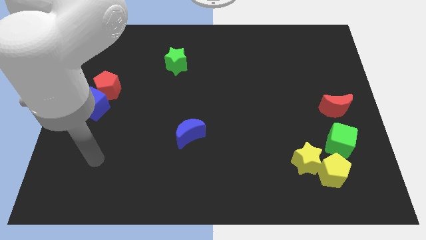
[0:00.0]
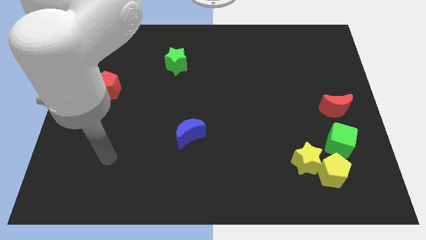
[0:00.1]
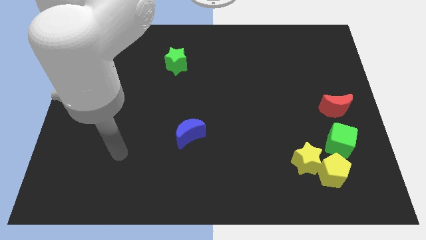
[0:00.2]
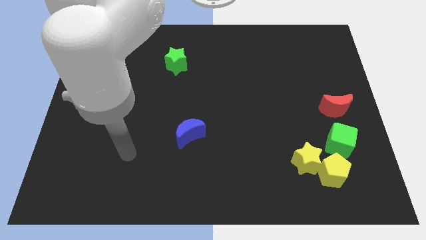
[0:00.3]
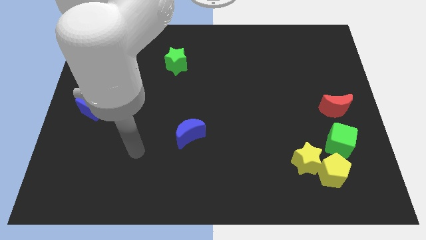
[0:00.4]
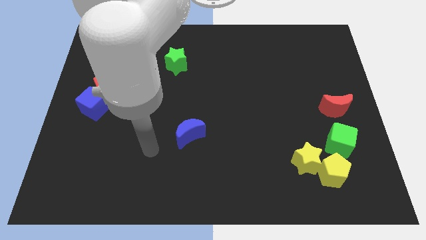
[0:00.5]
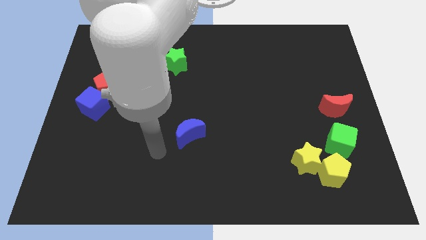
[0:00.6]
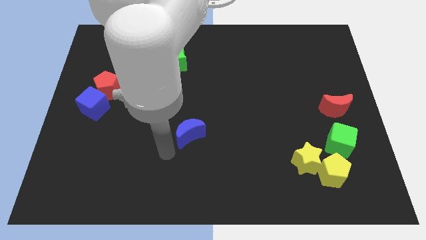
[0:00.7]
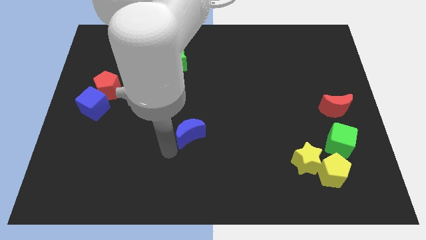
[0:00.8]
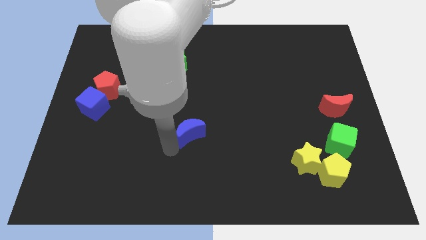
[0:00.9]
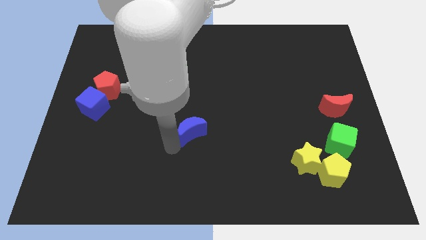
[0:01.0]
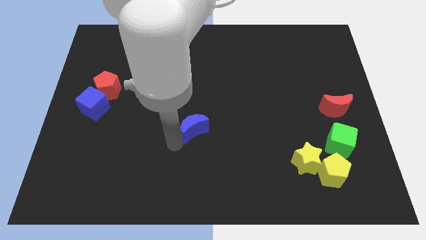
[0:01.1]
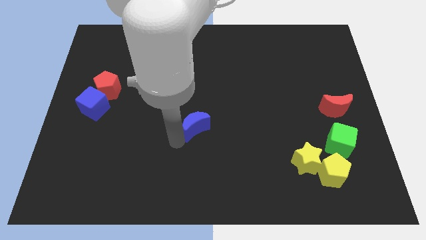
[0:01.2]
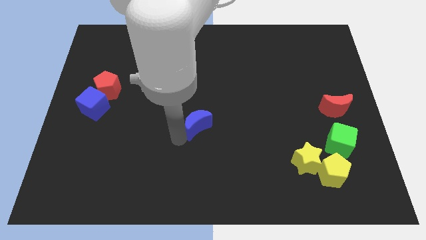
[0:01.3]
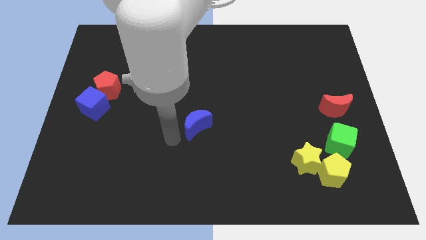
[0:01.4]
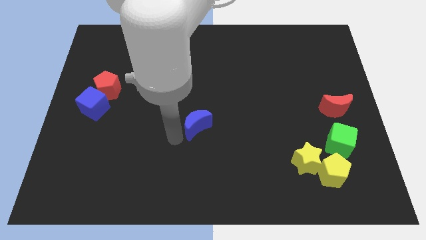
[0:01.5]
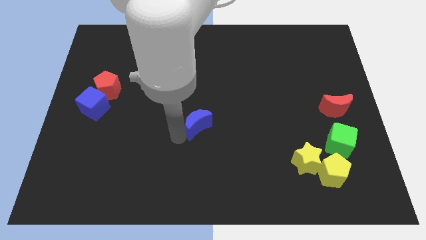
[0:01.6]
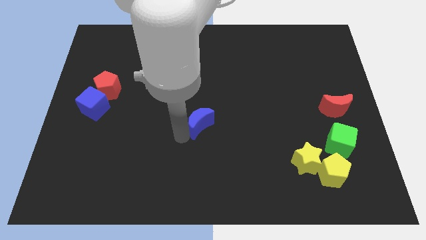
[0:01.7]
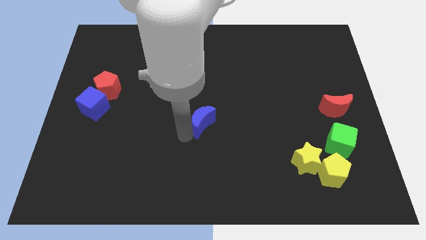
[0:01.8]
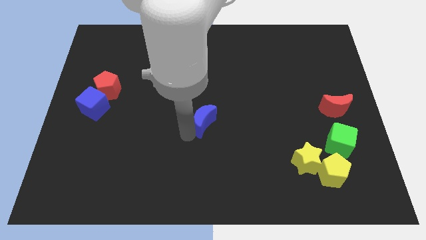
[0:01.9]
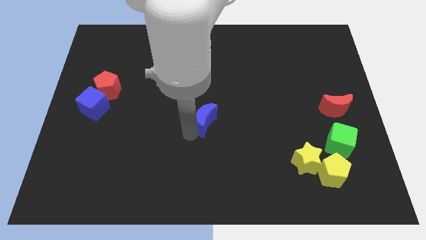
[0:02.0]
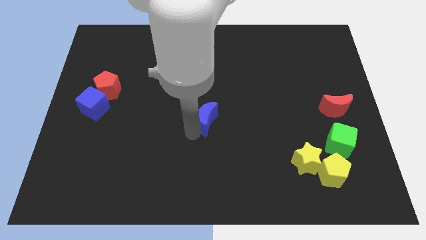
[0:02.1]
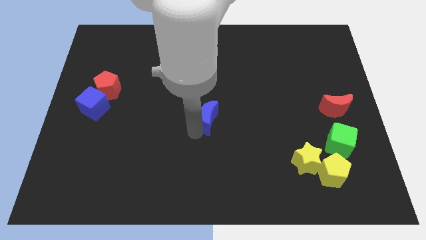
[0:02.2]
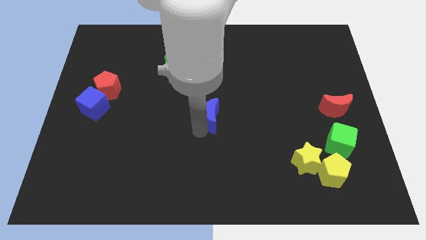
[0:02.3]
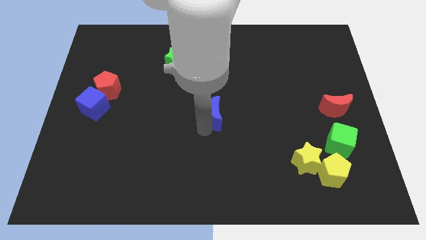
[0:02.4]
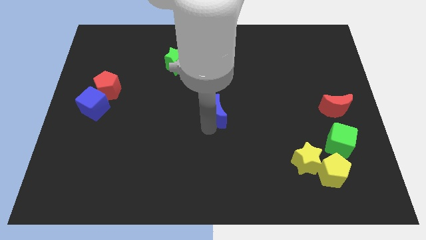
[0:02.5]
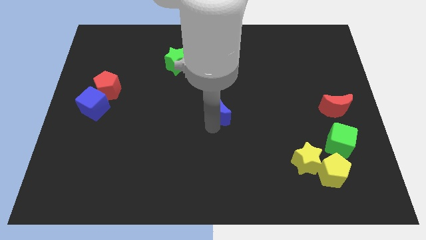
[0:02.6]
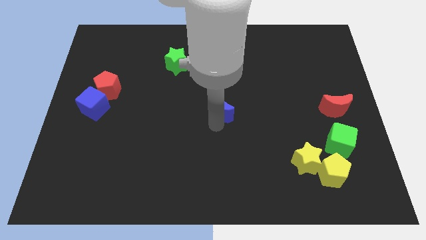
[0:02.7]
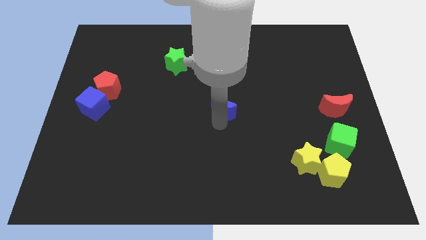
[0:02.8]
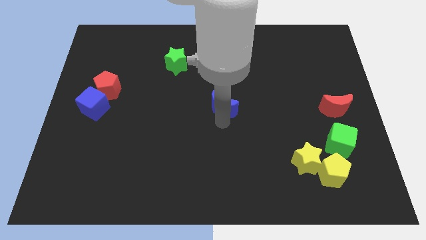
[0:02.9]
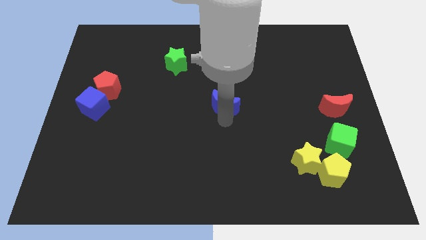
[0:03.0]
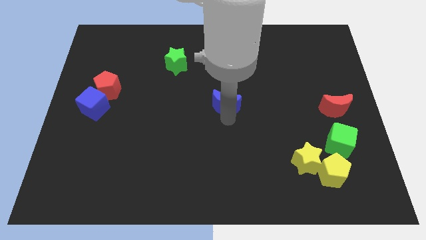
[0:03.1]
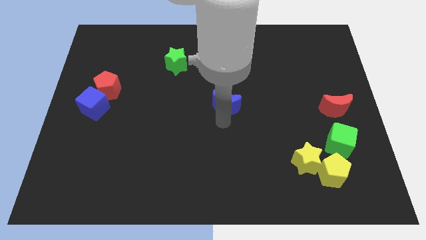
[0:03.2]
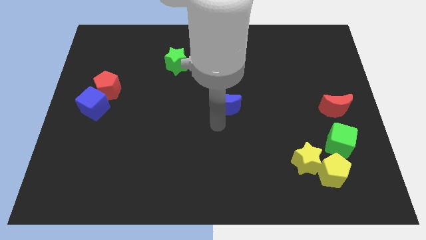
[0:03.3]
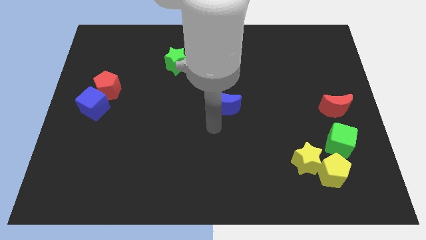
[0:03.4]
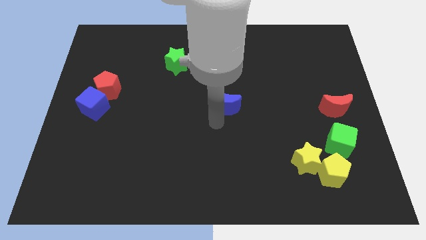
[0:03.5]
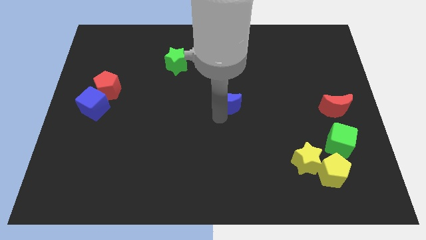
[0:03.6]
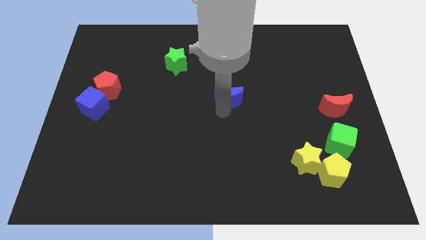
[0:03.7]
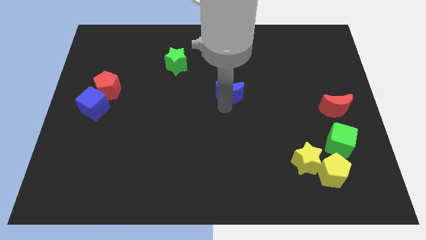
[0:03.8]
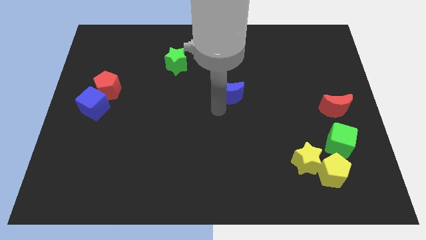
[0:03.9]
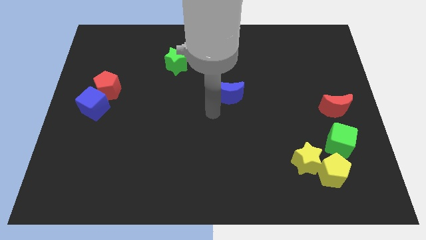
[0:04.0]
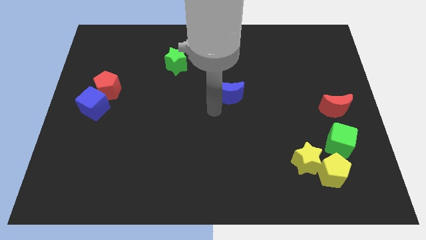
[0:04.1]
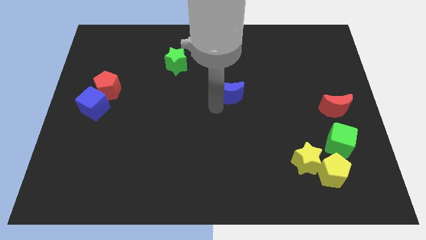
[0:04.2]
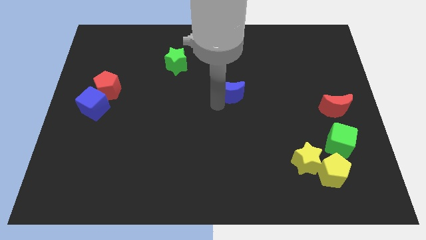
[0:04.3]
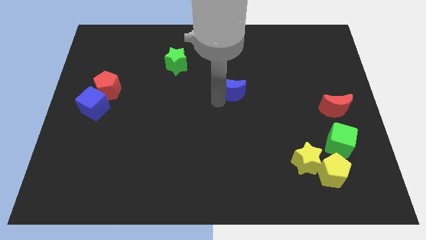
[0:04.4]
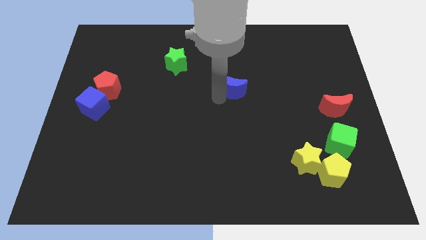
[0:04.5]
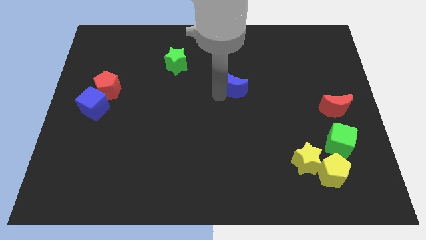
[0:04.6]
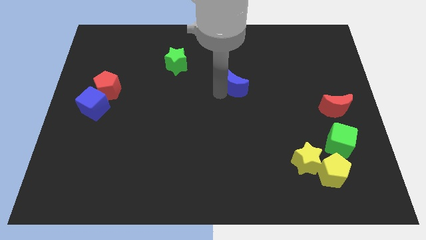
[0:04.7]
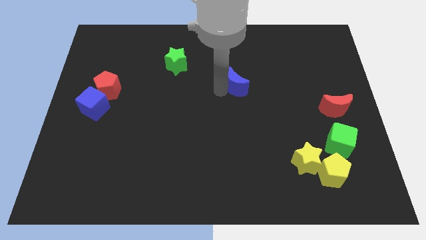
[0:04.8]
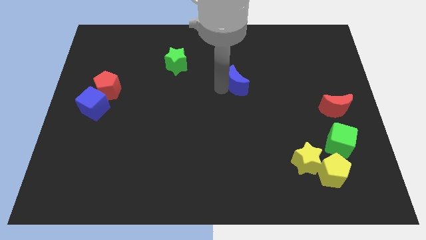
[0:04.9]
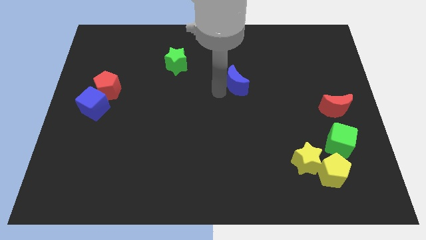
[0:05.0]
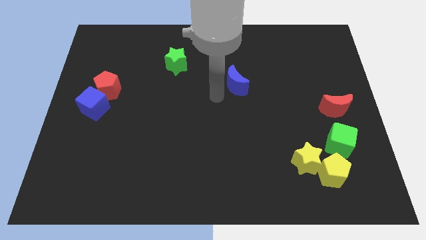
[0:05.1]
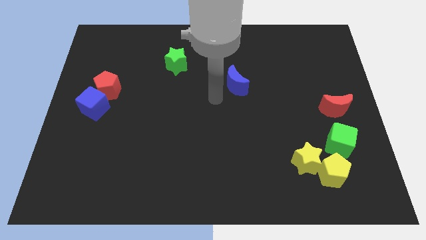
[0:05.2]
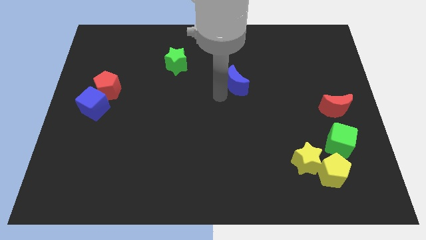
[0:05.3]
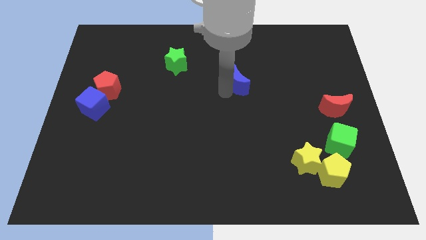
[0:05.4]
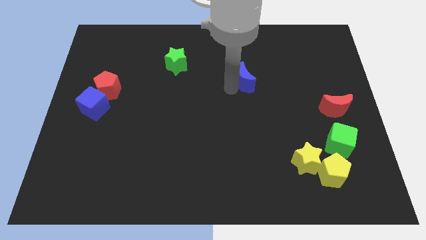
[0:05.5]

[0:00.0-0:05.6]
move the blue moon up and then to the right

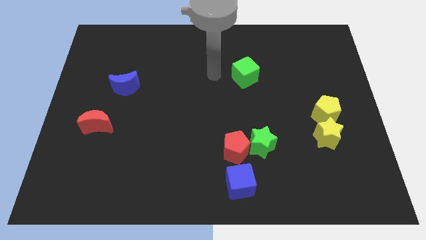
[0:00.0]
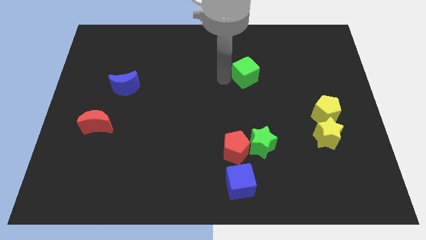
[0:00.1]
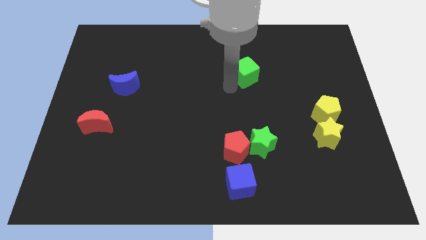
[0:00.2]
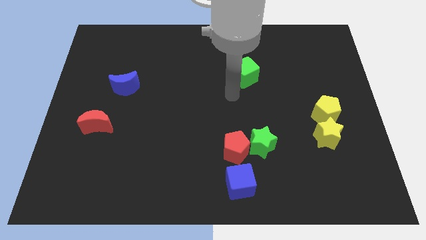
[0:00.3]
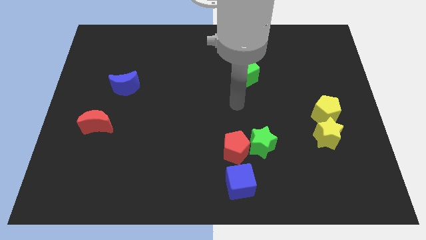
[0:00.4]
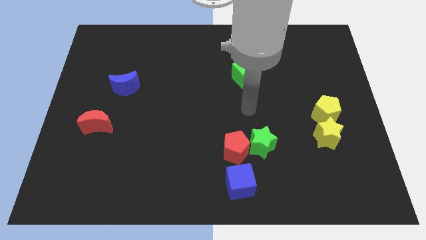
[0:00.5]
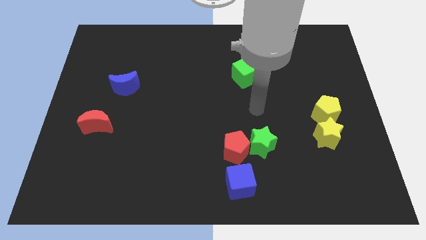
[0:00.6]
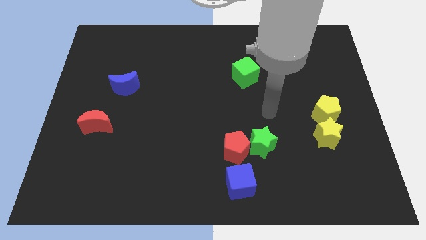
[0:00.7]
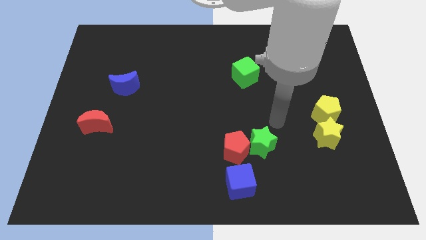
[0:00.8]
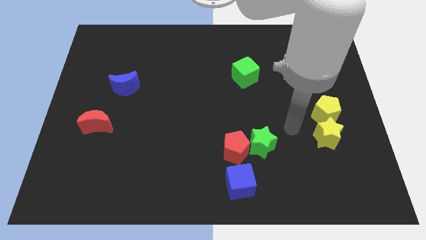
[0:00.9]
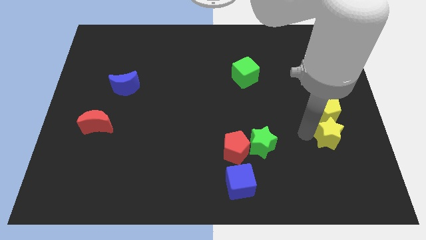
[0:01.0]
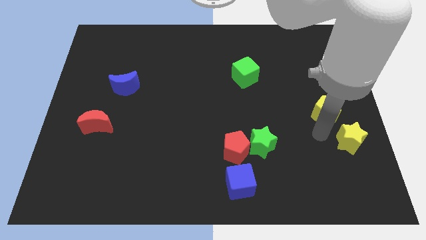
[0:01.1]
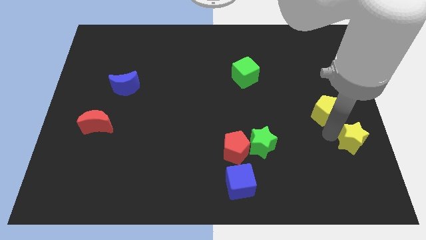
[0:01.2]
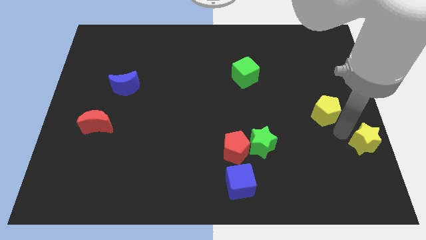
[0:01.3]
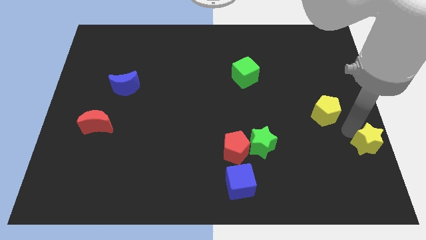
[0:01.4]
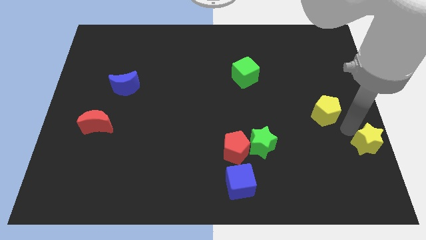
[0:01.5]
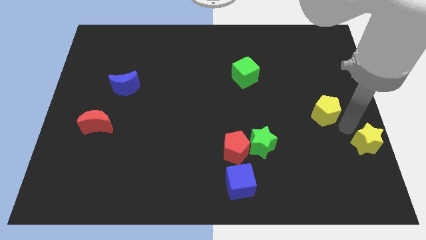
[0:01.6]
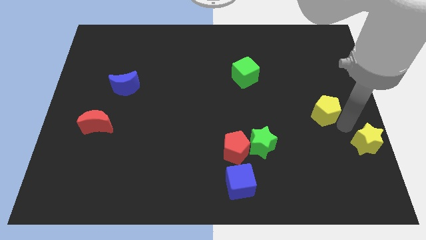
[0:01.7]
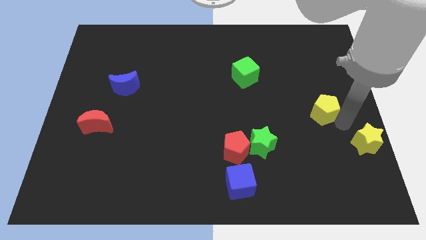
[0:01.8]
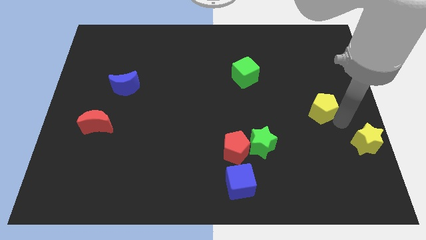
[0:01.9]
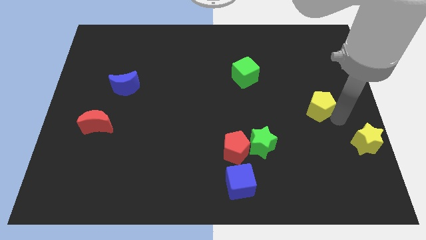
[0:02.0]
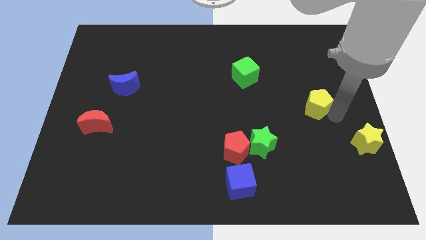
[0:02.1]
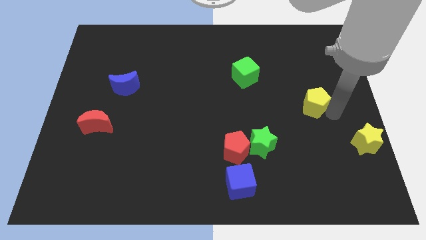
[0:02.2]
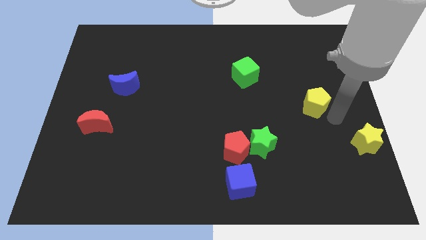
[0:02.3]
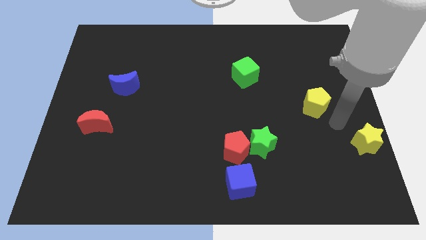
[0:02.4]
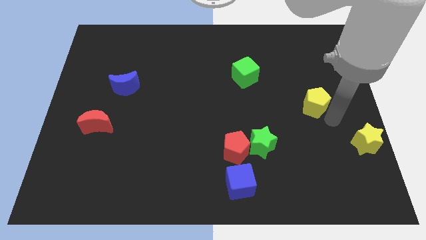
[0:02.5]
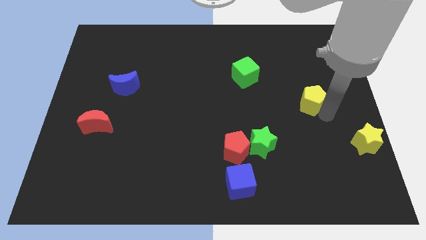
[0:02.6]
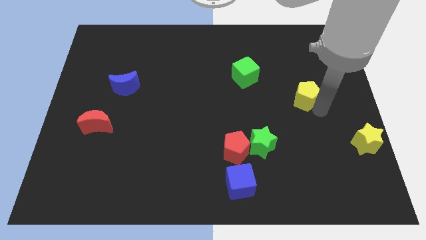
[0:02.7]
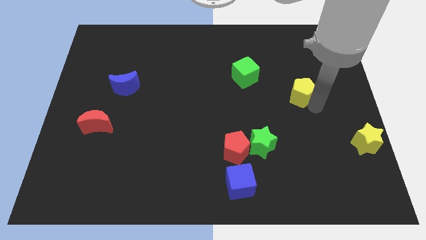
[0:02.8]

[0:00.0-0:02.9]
slightly move the yellow pentagon up and left diagonally
